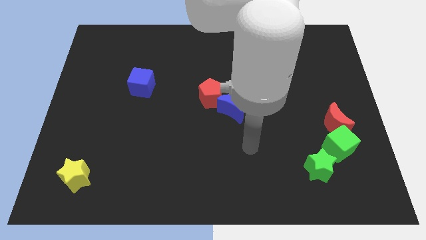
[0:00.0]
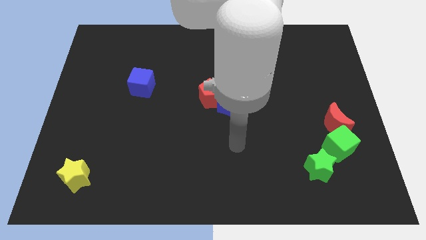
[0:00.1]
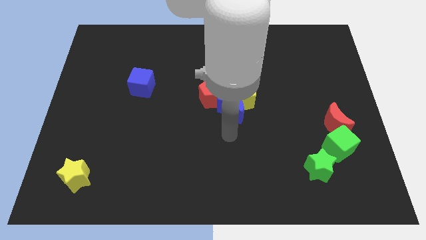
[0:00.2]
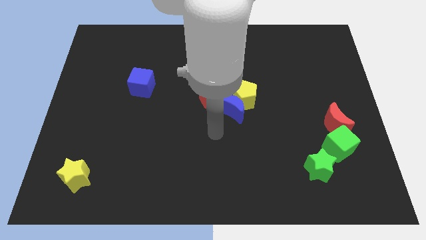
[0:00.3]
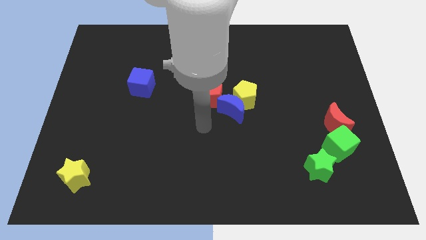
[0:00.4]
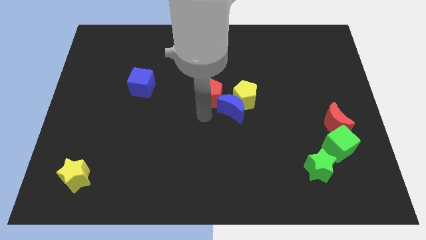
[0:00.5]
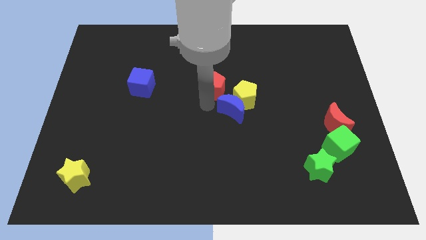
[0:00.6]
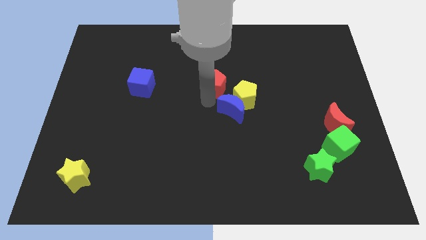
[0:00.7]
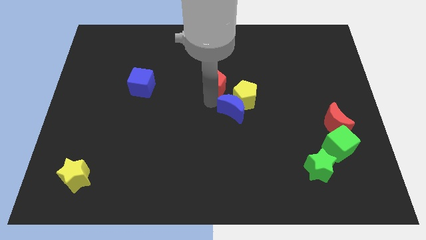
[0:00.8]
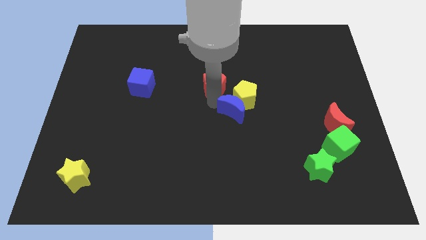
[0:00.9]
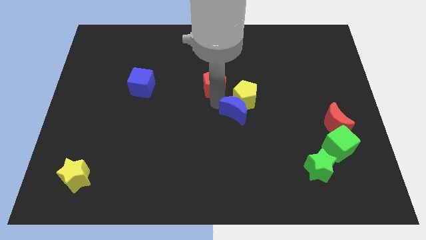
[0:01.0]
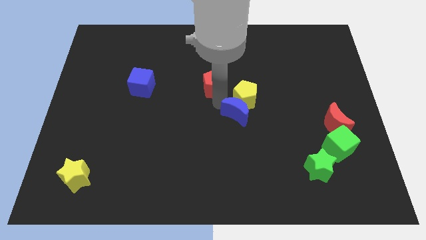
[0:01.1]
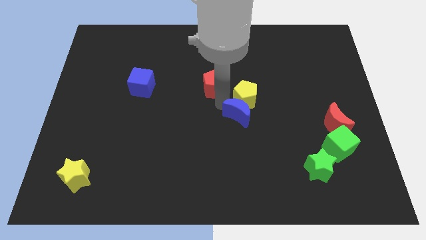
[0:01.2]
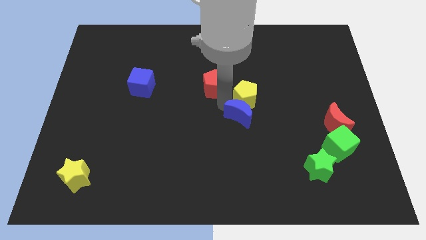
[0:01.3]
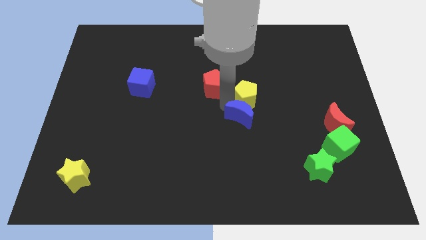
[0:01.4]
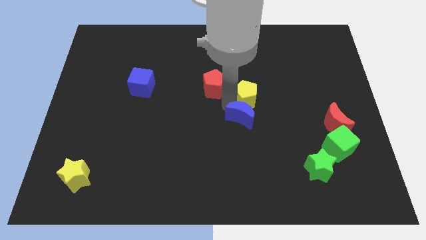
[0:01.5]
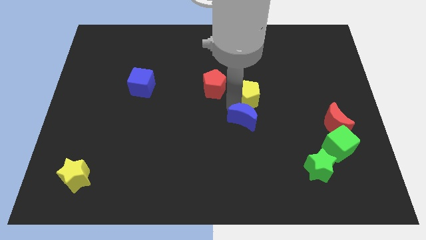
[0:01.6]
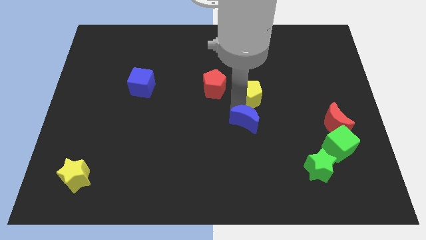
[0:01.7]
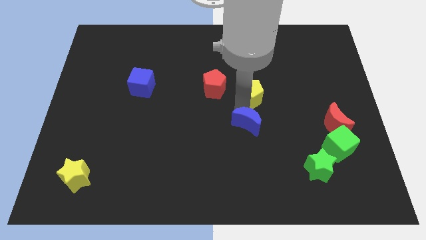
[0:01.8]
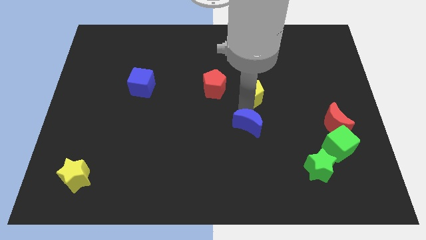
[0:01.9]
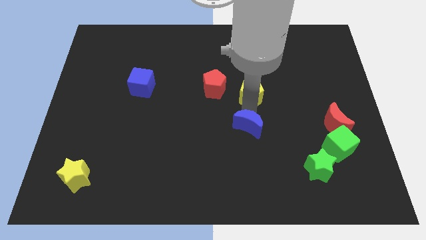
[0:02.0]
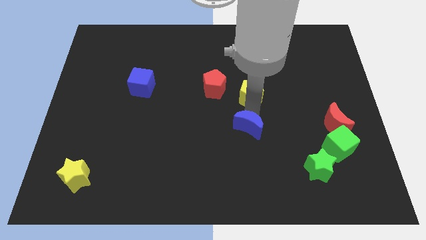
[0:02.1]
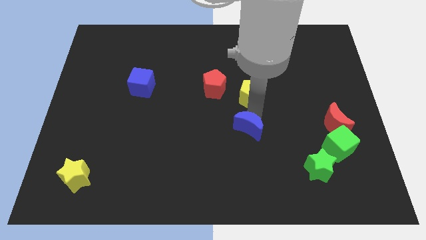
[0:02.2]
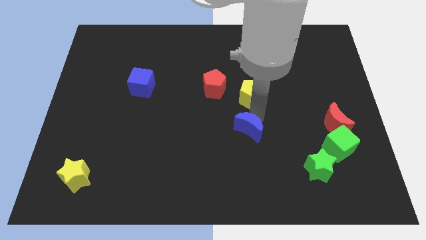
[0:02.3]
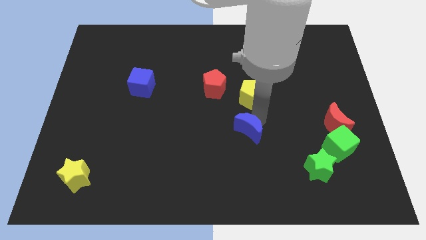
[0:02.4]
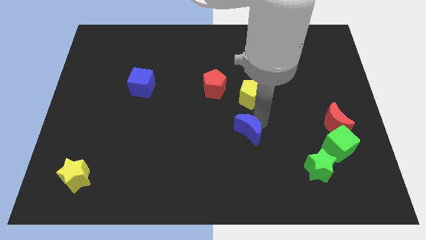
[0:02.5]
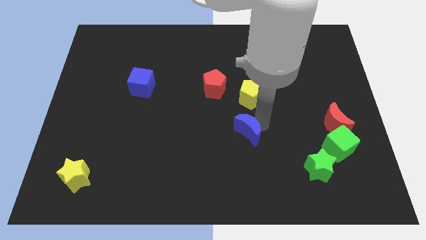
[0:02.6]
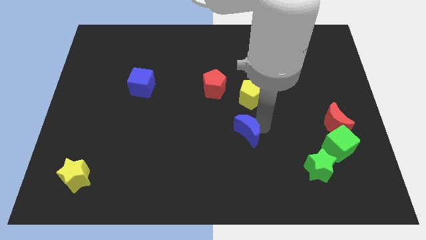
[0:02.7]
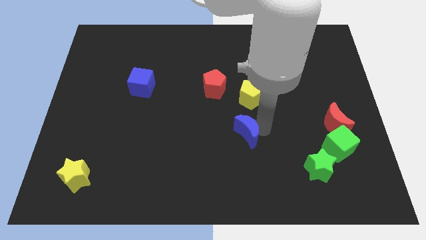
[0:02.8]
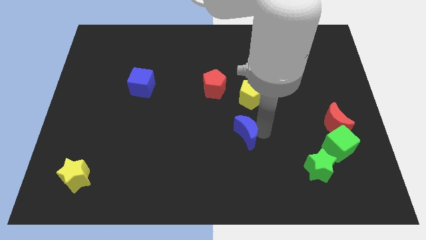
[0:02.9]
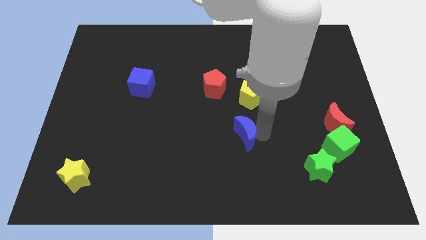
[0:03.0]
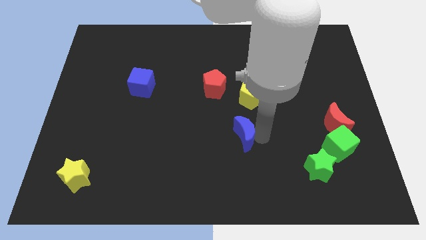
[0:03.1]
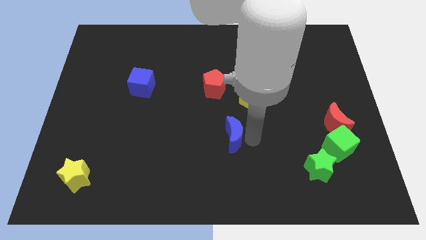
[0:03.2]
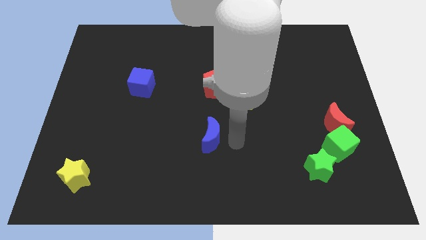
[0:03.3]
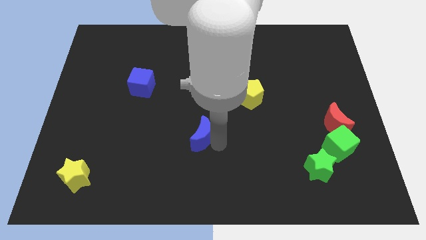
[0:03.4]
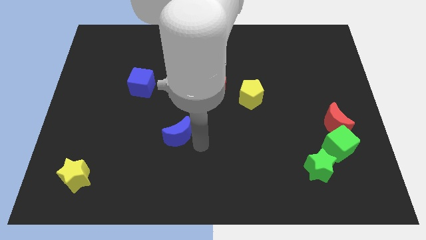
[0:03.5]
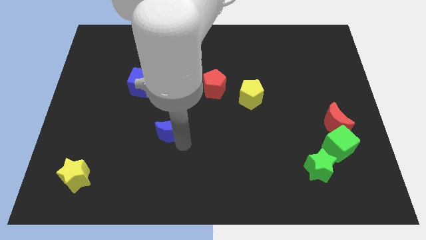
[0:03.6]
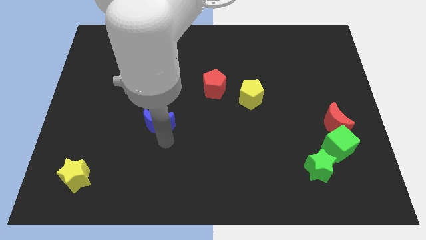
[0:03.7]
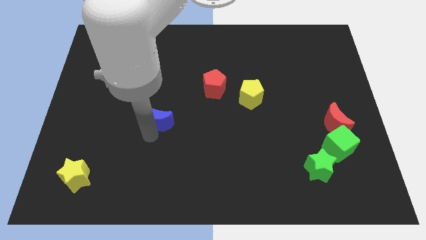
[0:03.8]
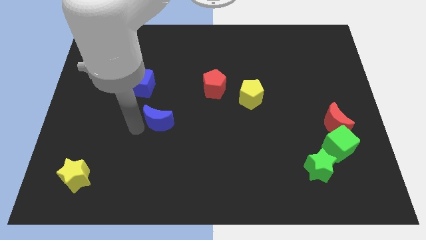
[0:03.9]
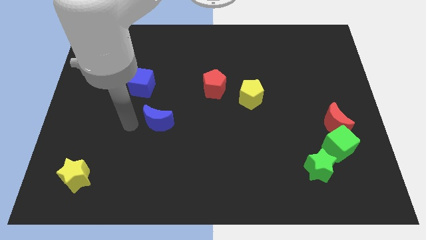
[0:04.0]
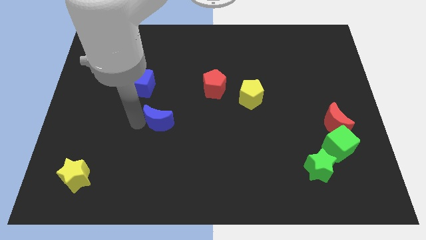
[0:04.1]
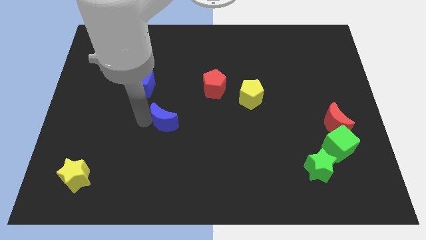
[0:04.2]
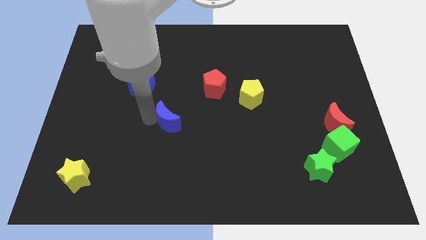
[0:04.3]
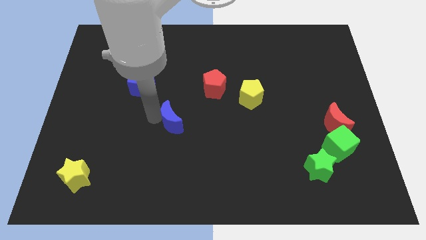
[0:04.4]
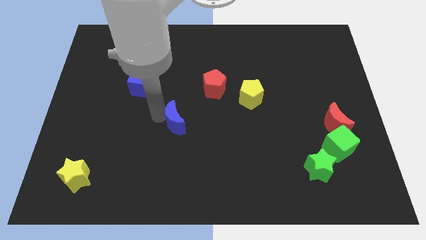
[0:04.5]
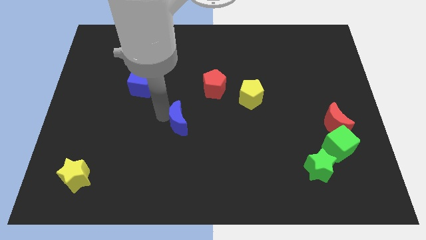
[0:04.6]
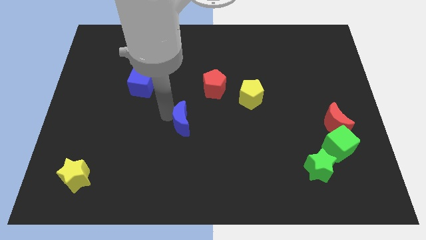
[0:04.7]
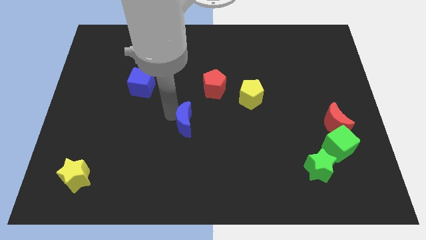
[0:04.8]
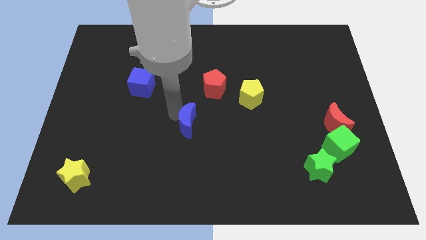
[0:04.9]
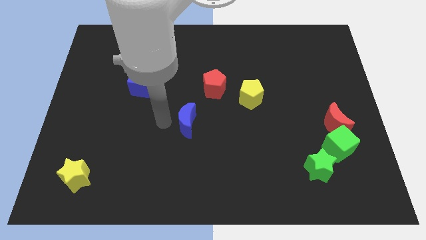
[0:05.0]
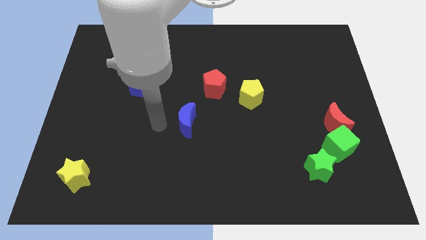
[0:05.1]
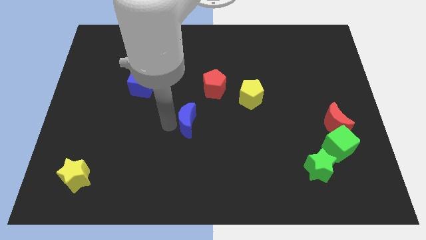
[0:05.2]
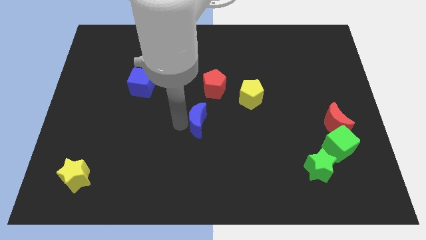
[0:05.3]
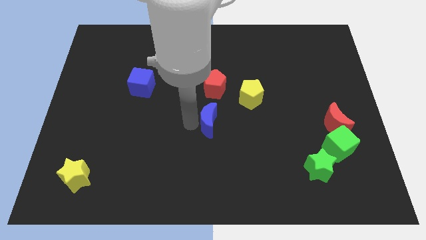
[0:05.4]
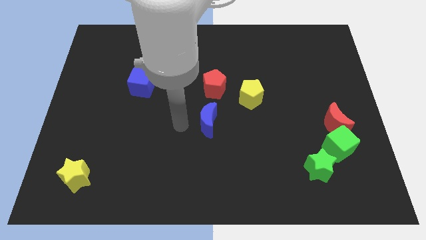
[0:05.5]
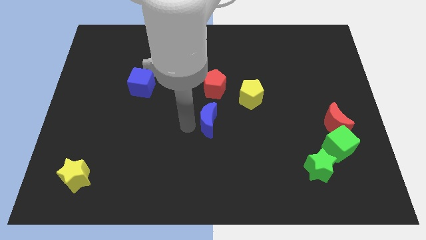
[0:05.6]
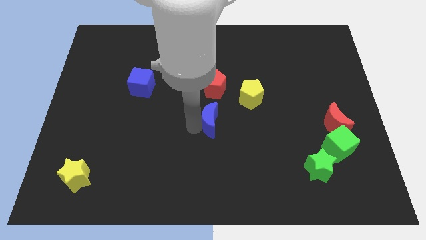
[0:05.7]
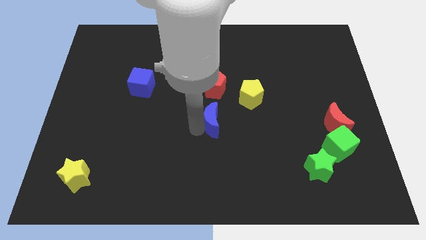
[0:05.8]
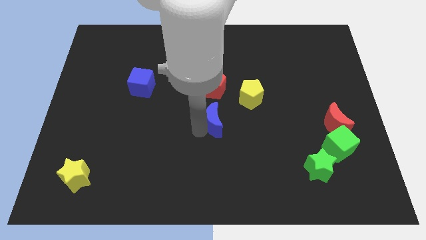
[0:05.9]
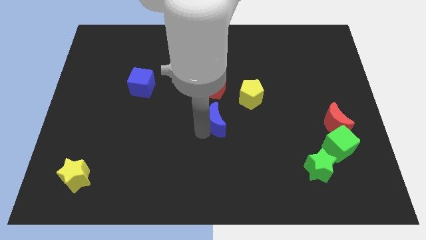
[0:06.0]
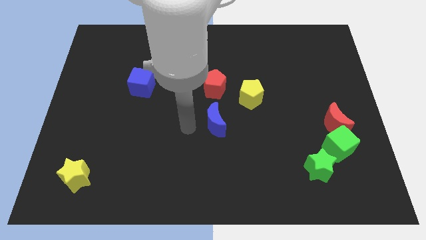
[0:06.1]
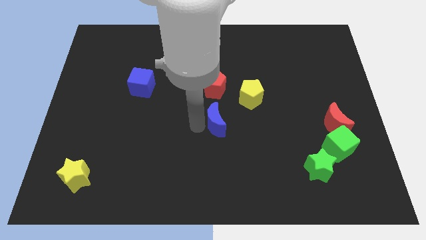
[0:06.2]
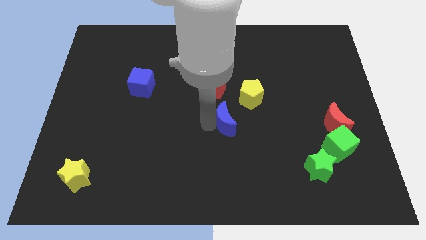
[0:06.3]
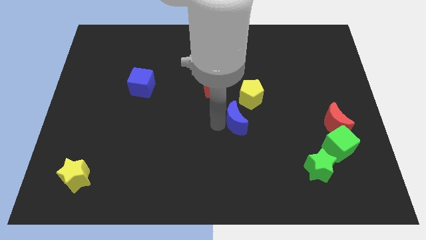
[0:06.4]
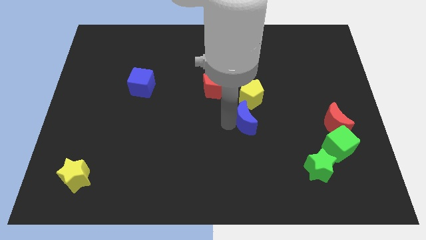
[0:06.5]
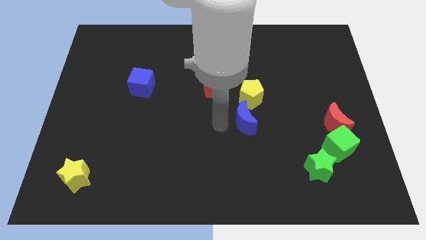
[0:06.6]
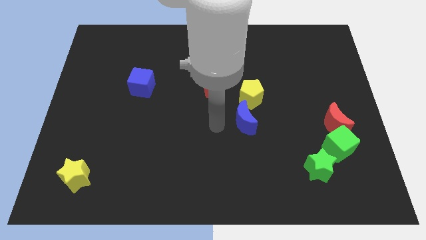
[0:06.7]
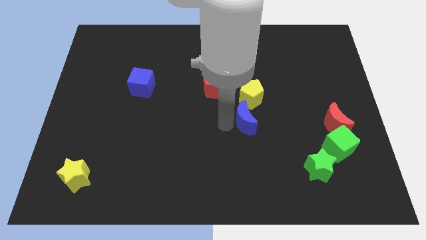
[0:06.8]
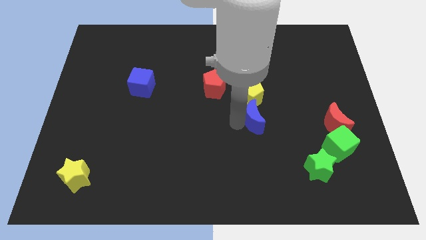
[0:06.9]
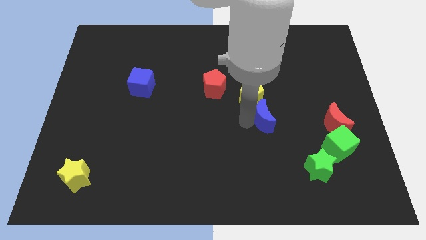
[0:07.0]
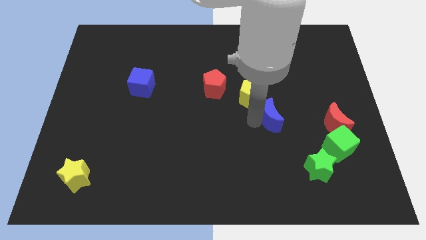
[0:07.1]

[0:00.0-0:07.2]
push the blue moon a little right

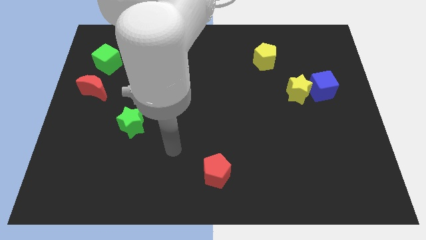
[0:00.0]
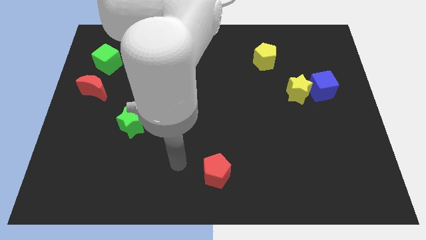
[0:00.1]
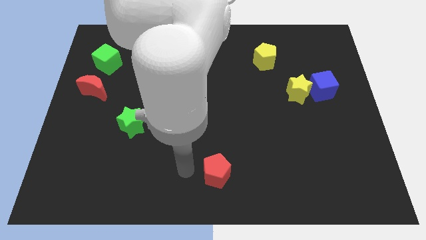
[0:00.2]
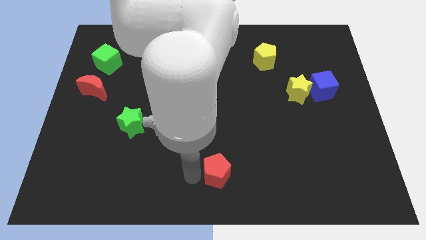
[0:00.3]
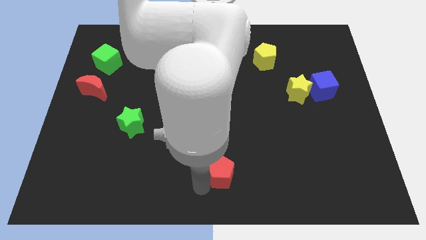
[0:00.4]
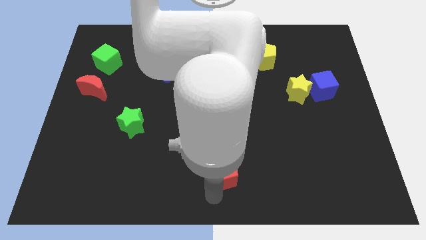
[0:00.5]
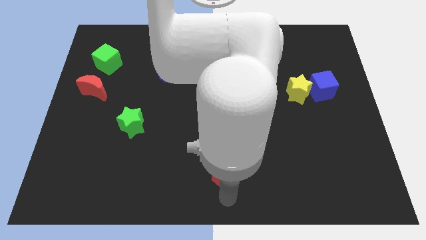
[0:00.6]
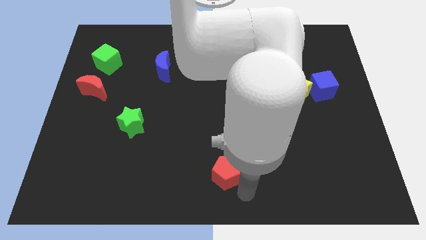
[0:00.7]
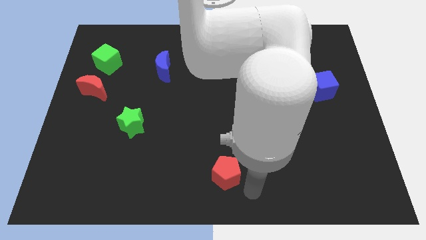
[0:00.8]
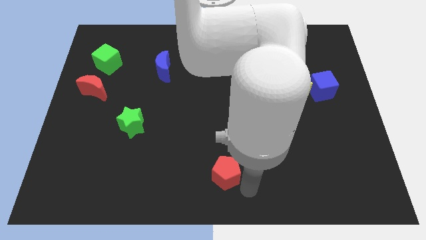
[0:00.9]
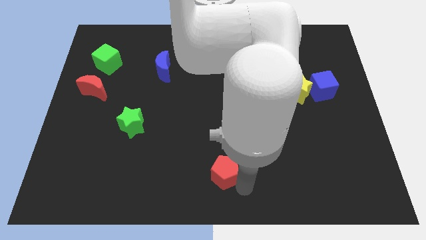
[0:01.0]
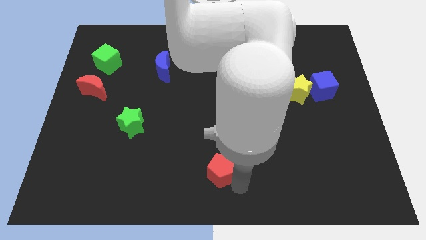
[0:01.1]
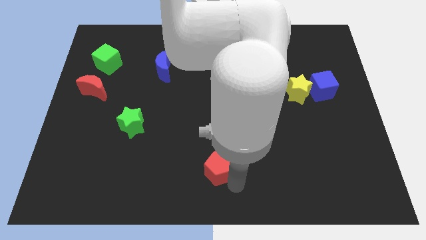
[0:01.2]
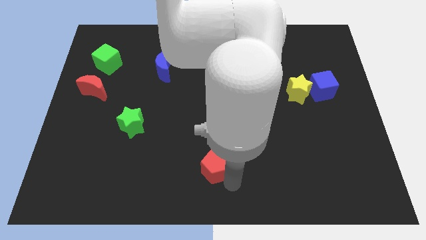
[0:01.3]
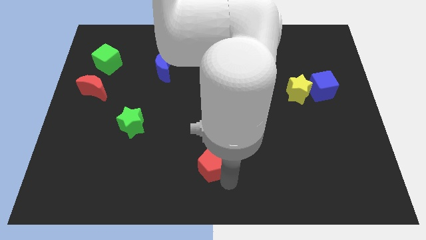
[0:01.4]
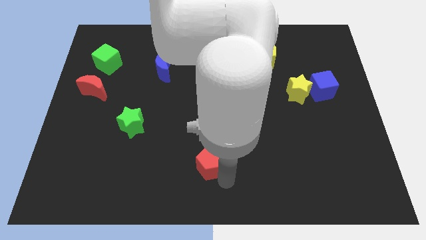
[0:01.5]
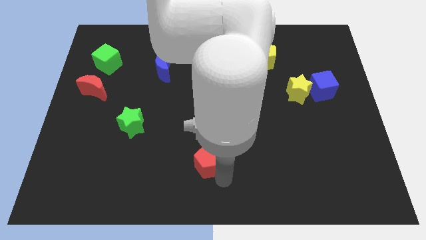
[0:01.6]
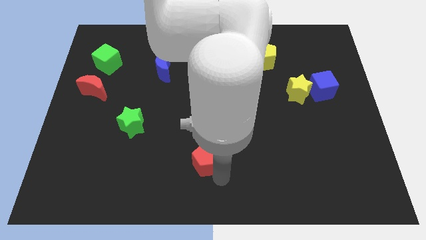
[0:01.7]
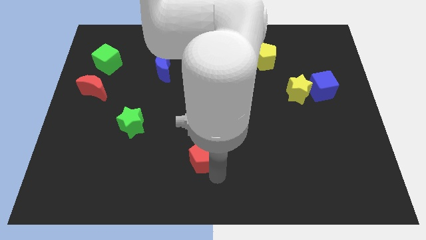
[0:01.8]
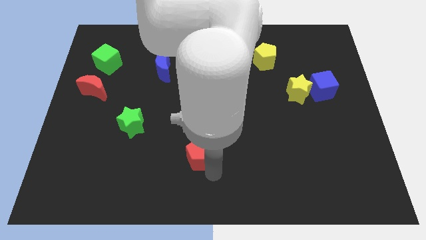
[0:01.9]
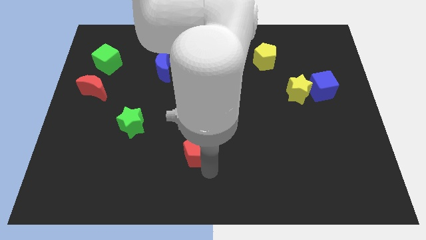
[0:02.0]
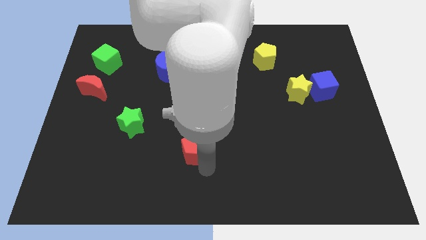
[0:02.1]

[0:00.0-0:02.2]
push the red pentagon a little upwards and left
